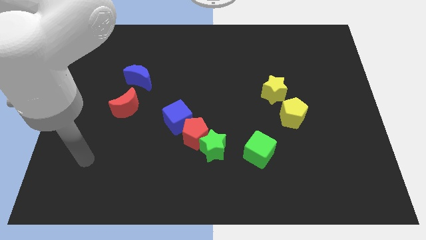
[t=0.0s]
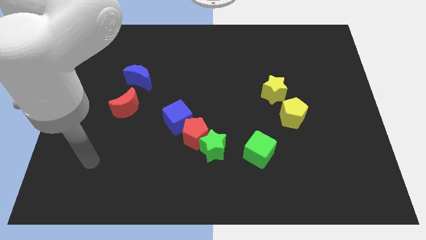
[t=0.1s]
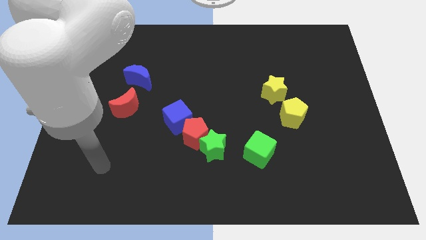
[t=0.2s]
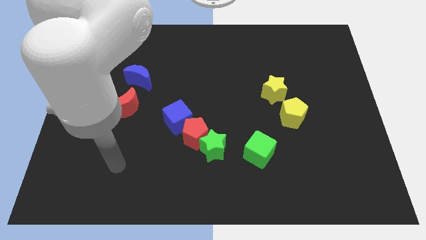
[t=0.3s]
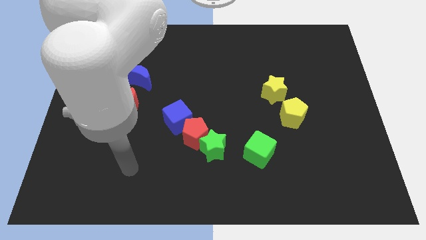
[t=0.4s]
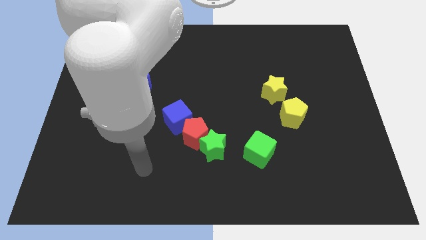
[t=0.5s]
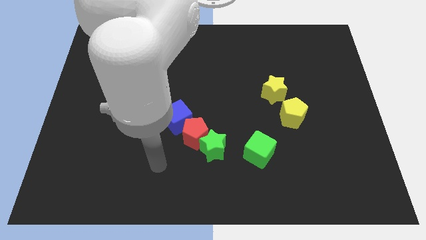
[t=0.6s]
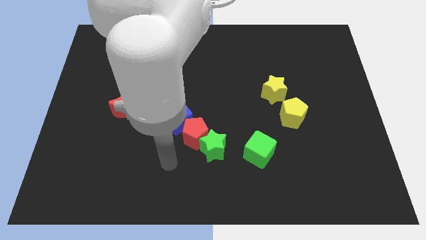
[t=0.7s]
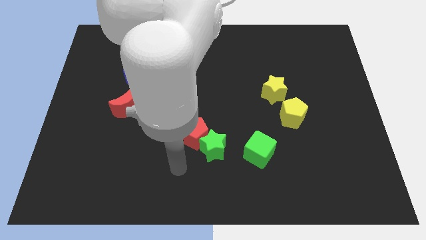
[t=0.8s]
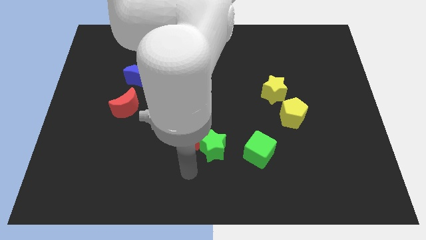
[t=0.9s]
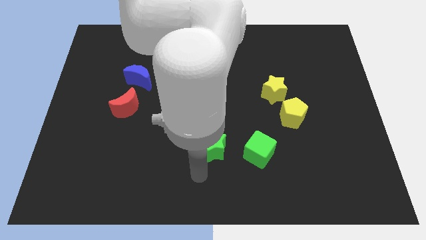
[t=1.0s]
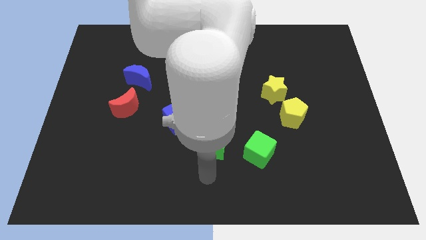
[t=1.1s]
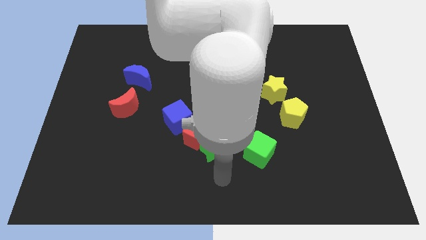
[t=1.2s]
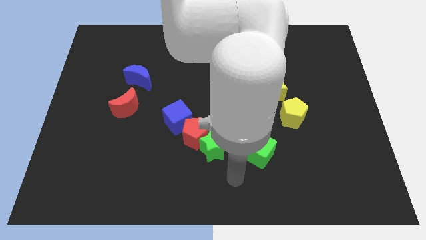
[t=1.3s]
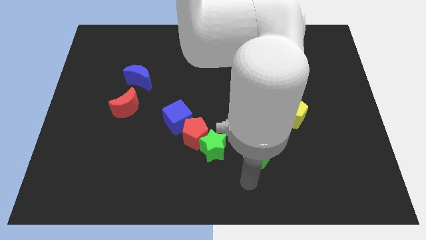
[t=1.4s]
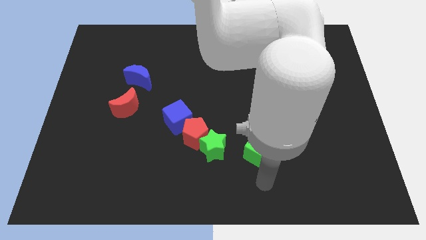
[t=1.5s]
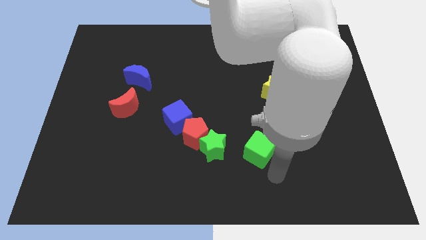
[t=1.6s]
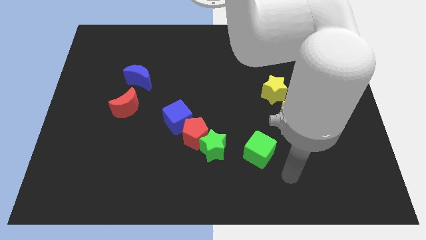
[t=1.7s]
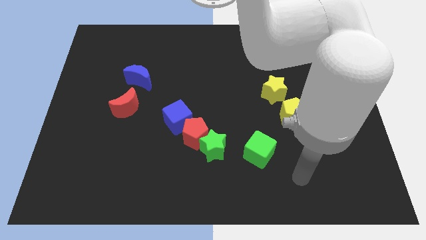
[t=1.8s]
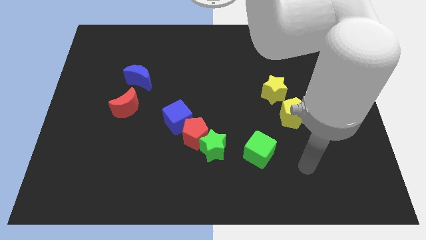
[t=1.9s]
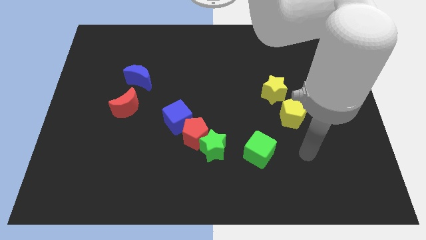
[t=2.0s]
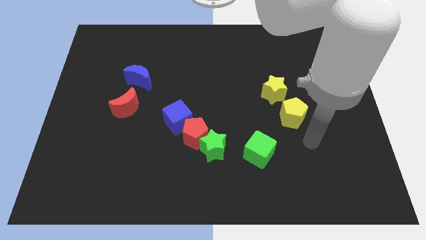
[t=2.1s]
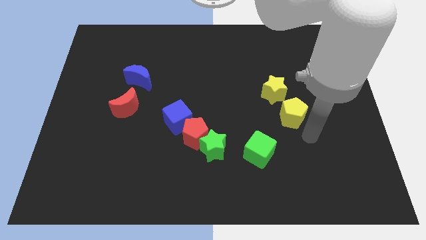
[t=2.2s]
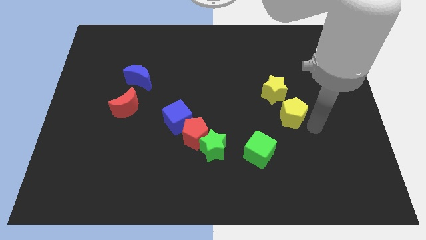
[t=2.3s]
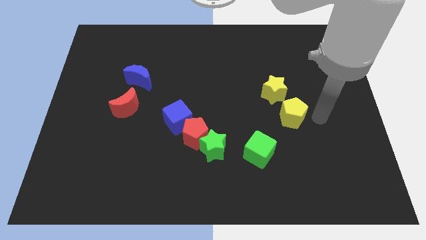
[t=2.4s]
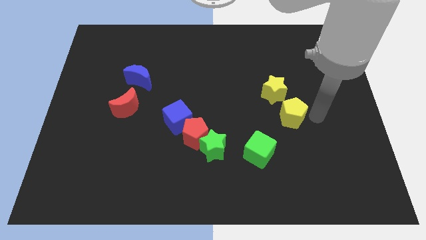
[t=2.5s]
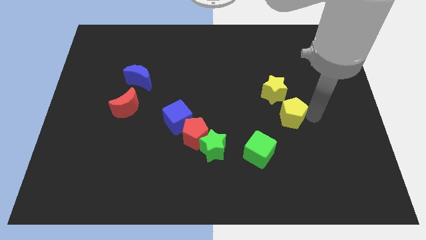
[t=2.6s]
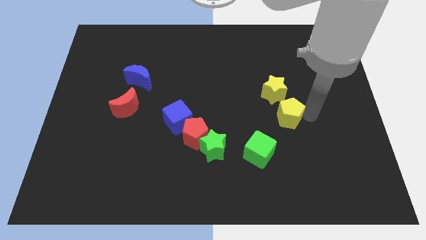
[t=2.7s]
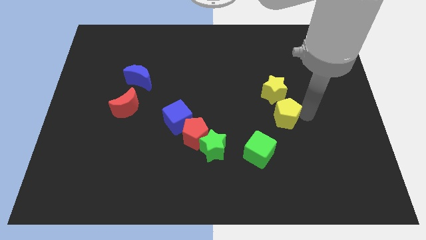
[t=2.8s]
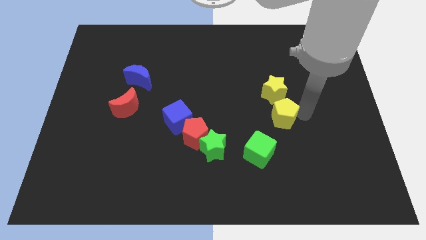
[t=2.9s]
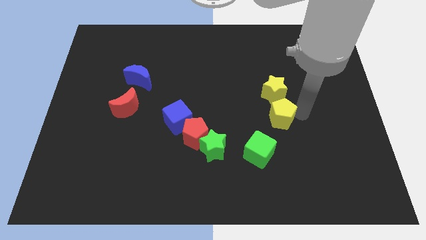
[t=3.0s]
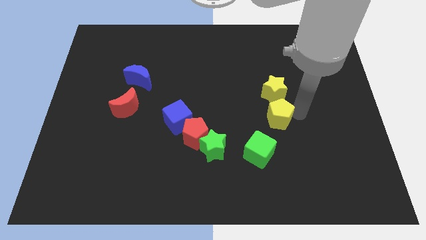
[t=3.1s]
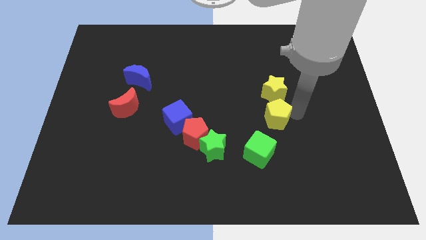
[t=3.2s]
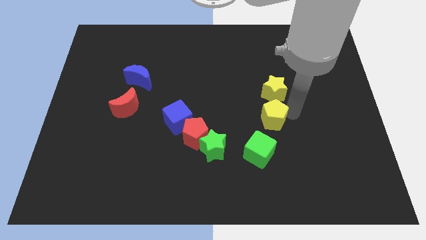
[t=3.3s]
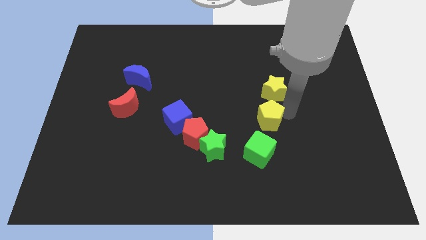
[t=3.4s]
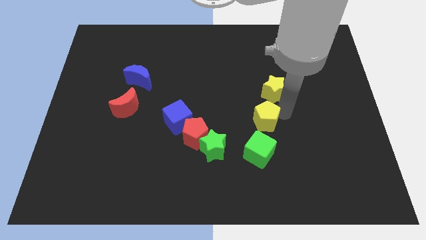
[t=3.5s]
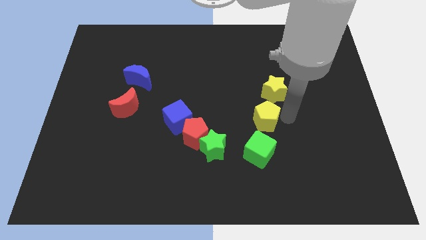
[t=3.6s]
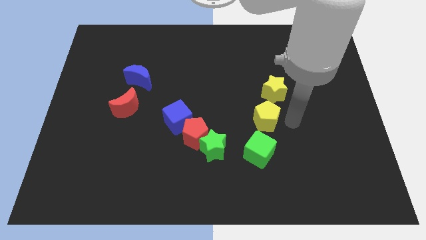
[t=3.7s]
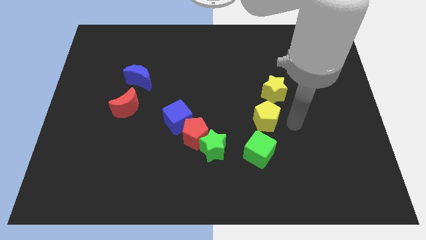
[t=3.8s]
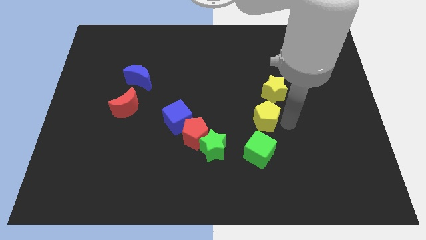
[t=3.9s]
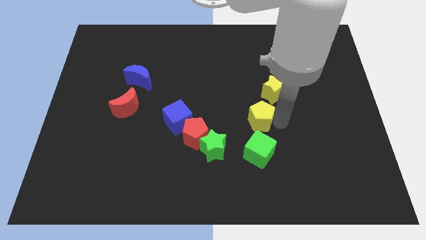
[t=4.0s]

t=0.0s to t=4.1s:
slide the yellow pentagon left a bit

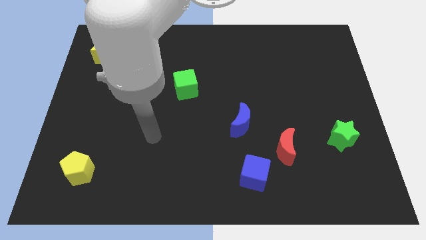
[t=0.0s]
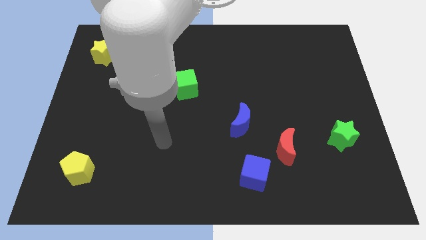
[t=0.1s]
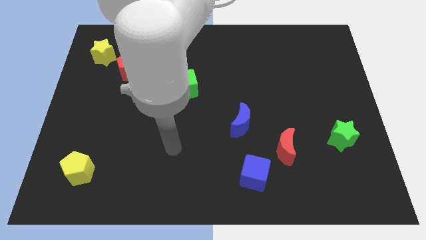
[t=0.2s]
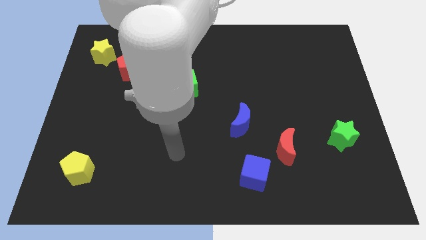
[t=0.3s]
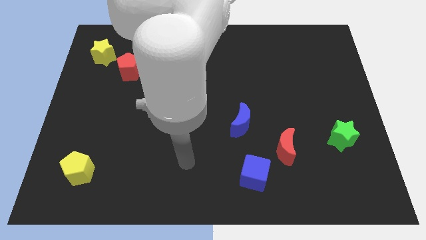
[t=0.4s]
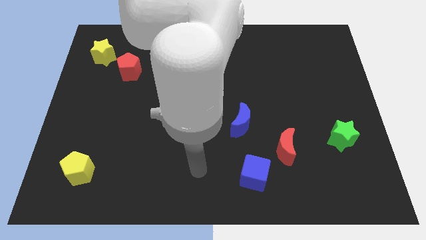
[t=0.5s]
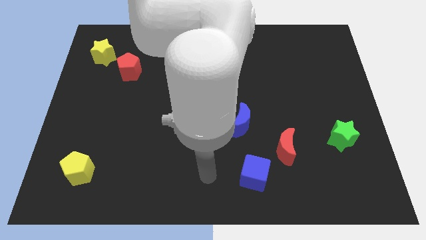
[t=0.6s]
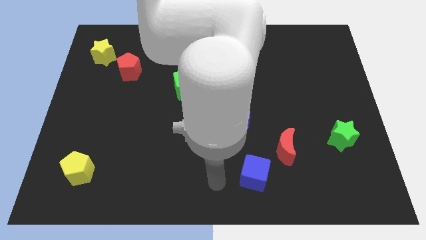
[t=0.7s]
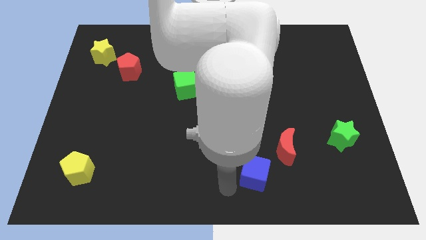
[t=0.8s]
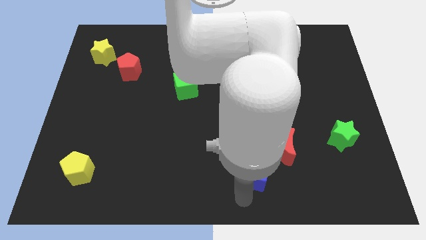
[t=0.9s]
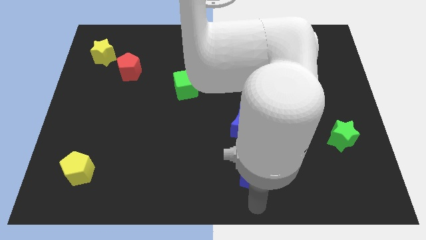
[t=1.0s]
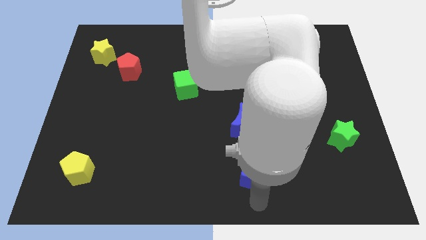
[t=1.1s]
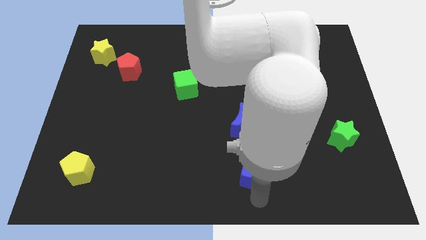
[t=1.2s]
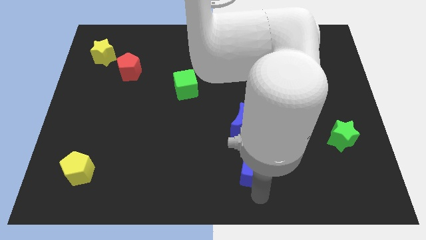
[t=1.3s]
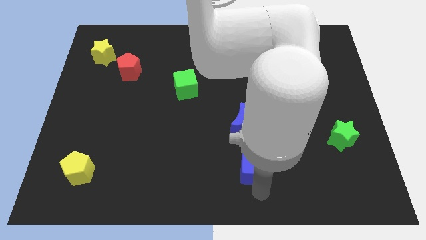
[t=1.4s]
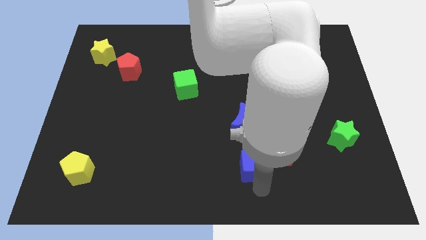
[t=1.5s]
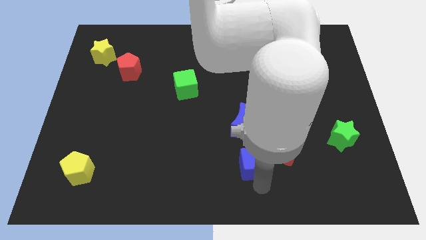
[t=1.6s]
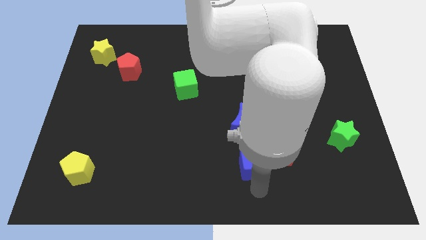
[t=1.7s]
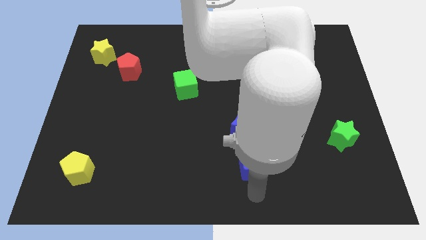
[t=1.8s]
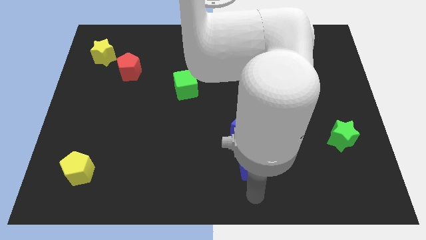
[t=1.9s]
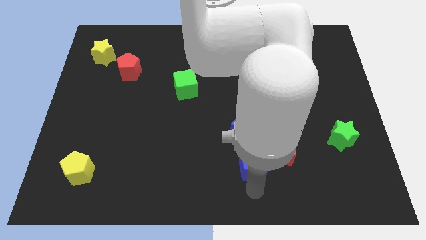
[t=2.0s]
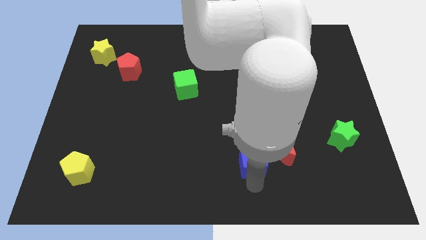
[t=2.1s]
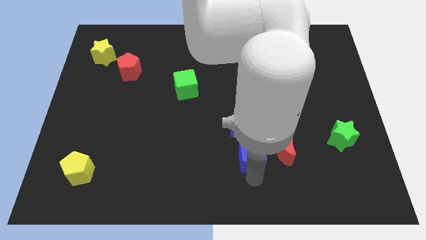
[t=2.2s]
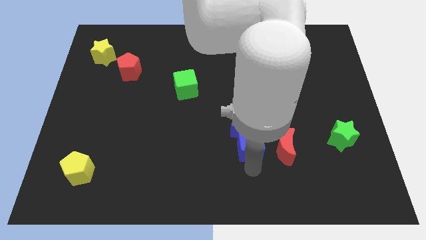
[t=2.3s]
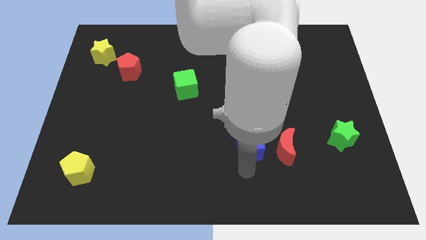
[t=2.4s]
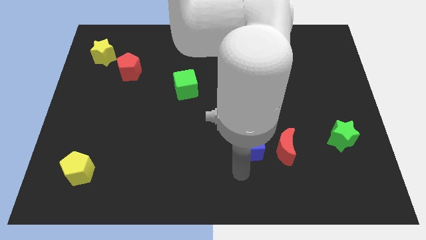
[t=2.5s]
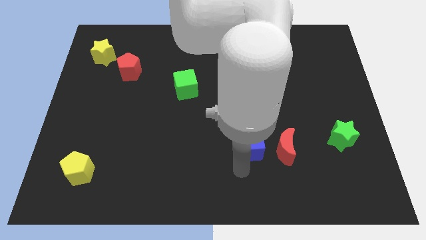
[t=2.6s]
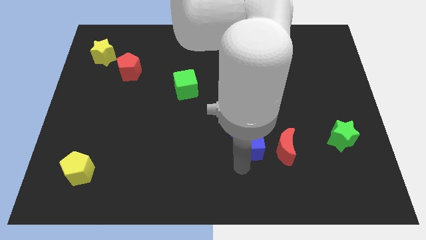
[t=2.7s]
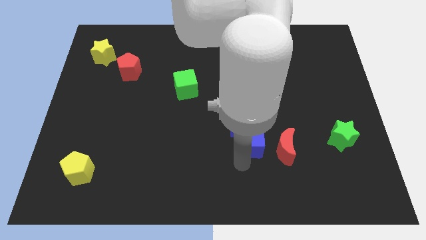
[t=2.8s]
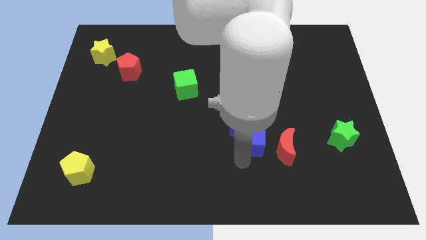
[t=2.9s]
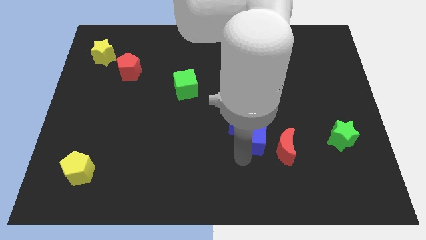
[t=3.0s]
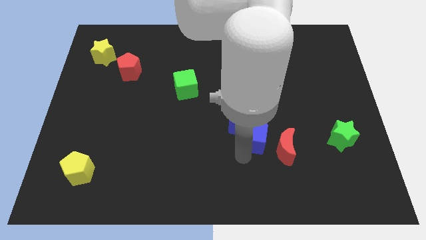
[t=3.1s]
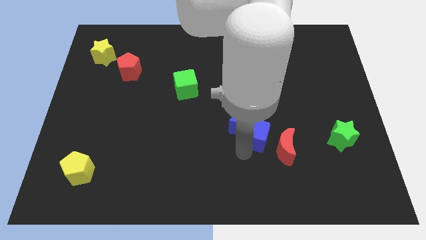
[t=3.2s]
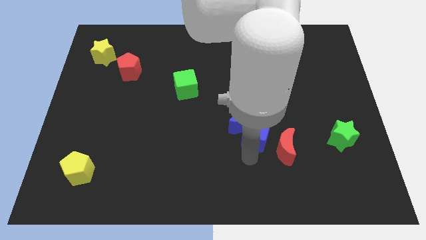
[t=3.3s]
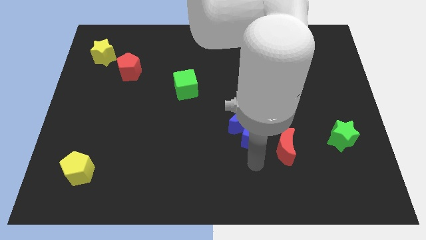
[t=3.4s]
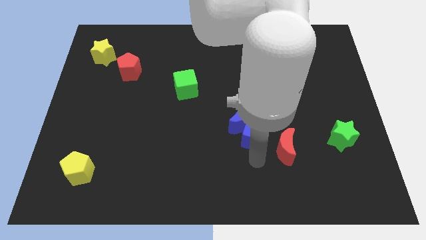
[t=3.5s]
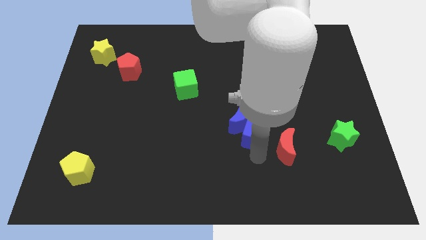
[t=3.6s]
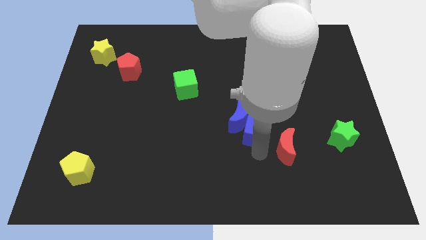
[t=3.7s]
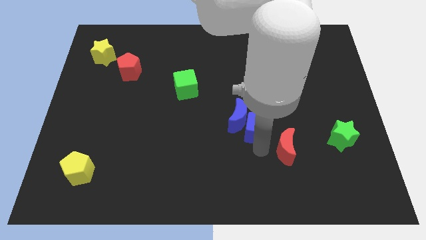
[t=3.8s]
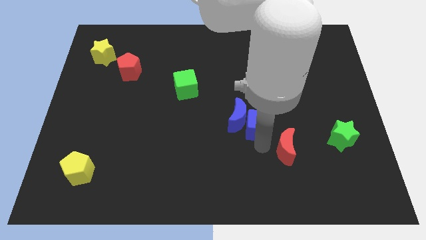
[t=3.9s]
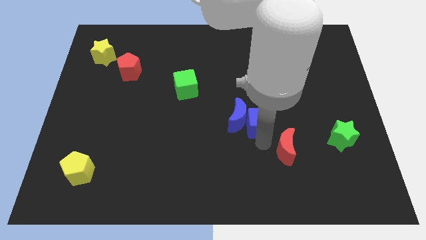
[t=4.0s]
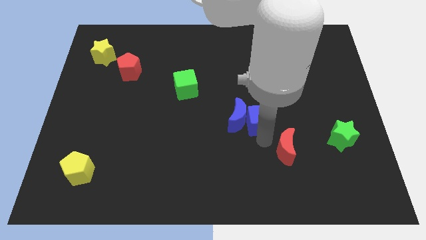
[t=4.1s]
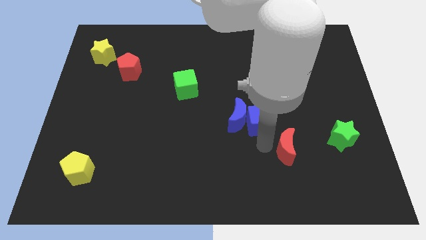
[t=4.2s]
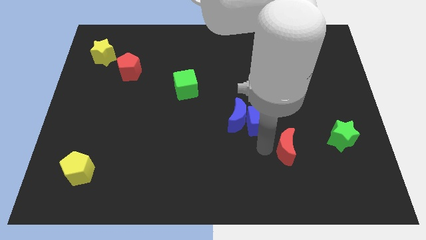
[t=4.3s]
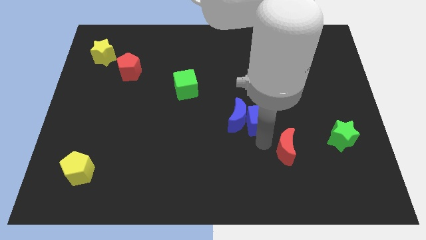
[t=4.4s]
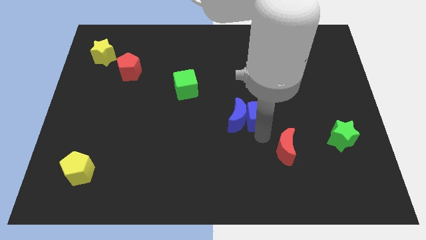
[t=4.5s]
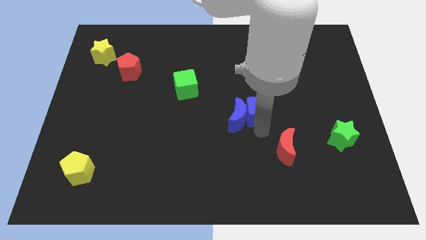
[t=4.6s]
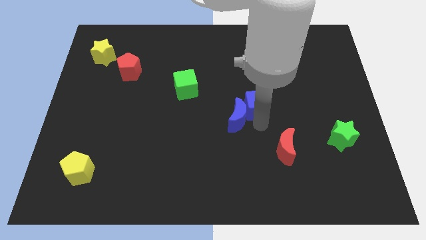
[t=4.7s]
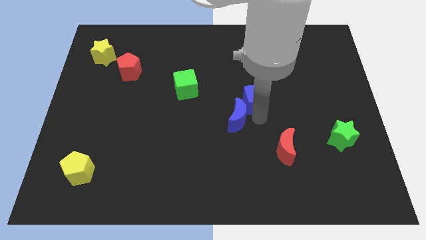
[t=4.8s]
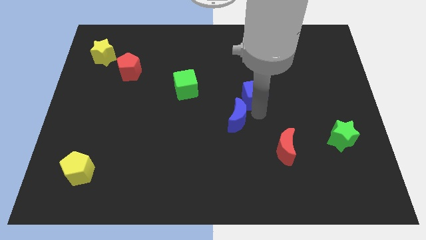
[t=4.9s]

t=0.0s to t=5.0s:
move the blue cube upwards
